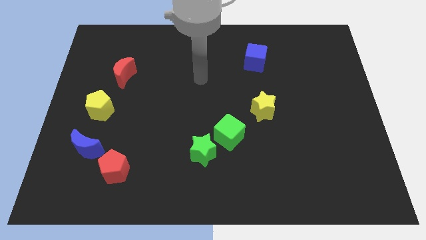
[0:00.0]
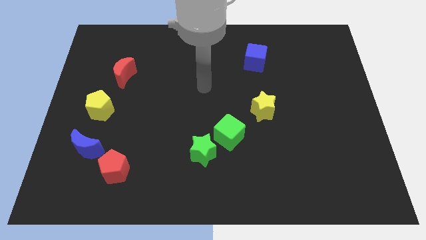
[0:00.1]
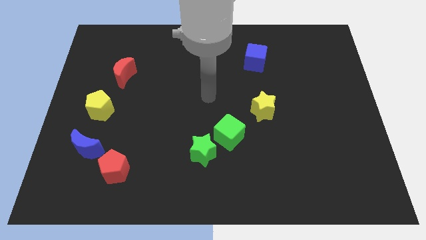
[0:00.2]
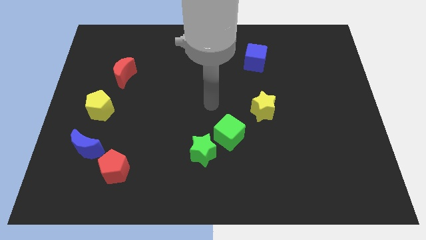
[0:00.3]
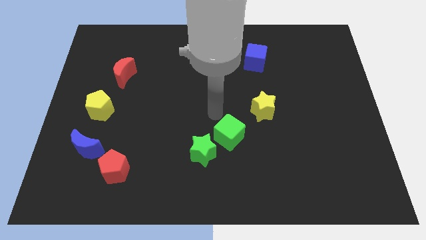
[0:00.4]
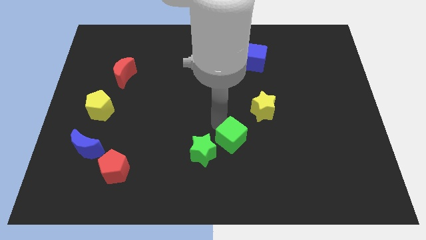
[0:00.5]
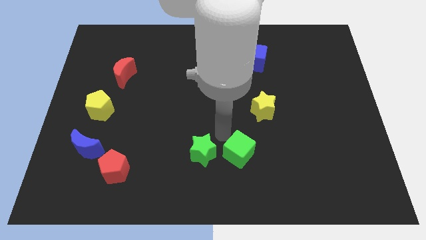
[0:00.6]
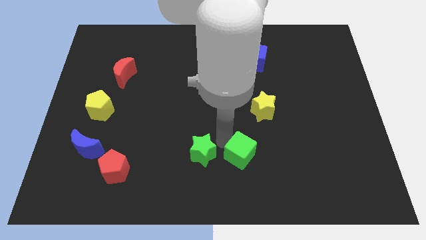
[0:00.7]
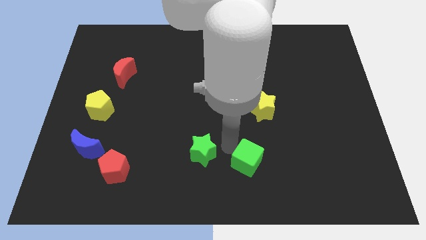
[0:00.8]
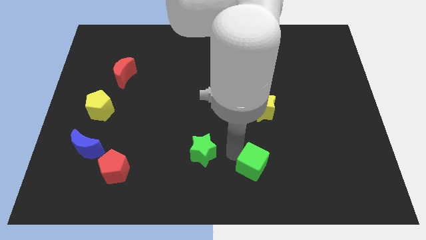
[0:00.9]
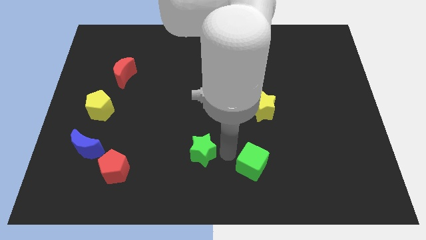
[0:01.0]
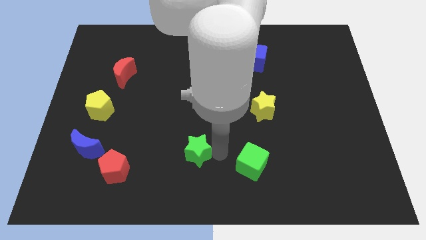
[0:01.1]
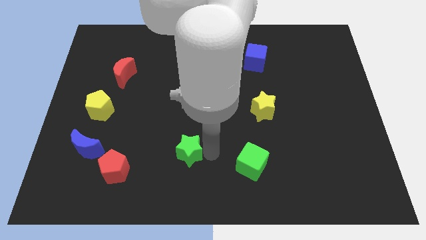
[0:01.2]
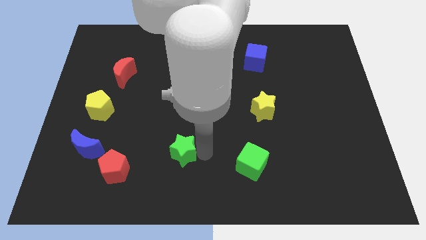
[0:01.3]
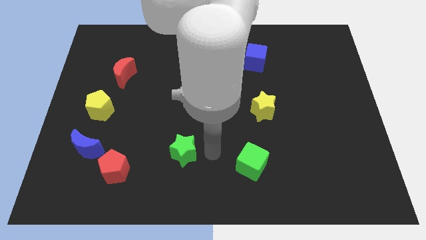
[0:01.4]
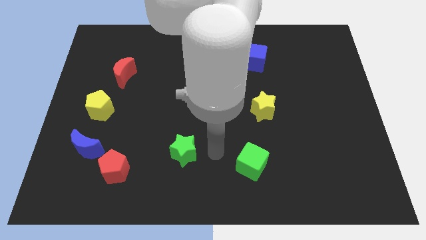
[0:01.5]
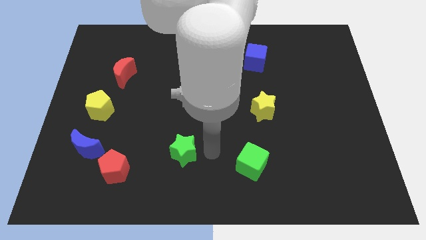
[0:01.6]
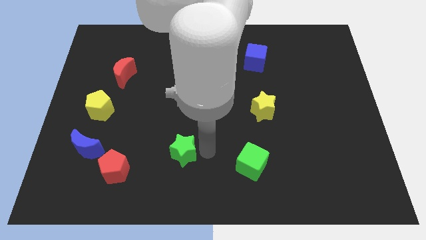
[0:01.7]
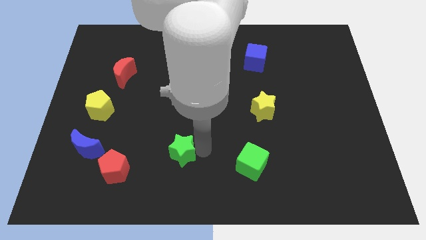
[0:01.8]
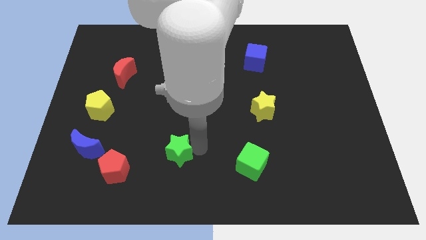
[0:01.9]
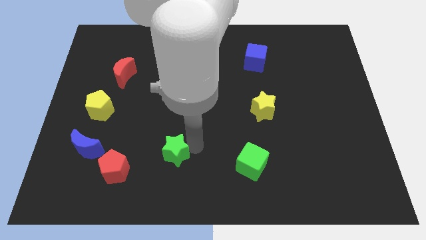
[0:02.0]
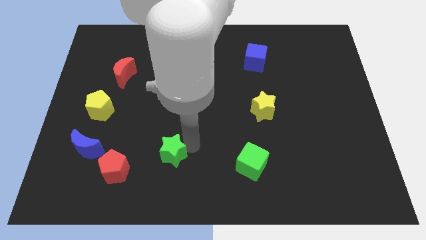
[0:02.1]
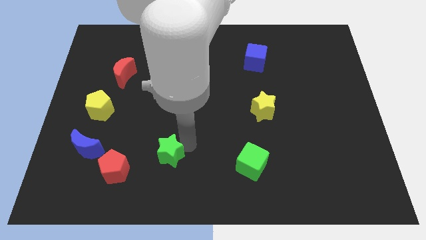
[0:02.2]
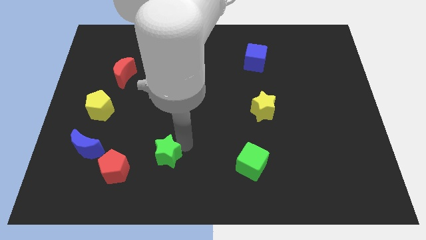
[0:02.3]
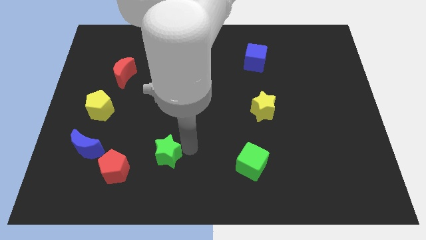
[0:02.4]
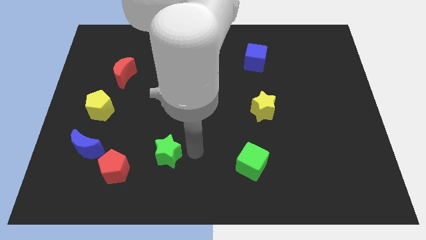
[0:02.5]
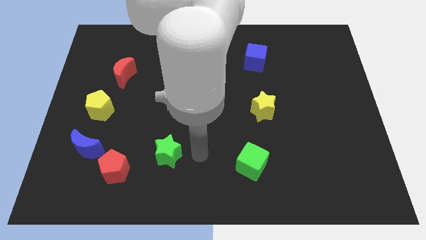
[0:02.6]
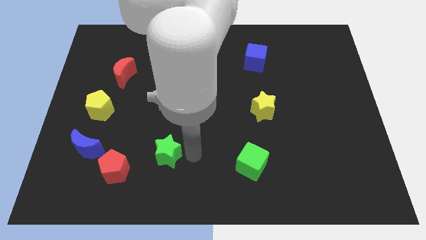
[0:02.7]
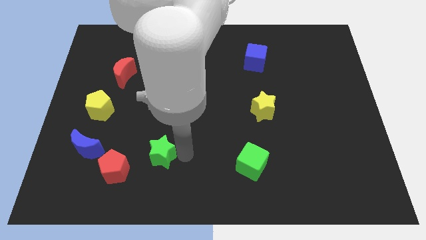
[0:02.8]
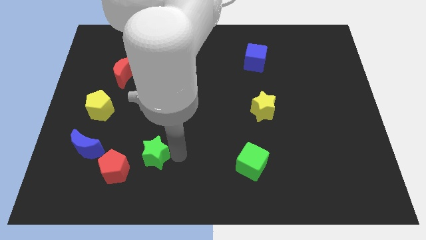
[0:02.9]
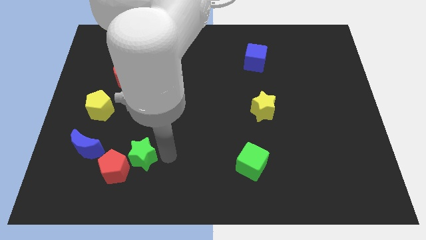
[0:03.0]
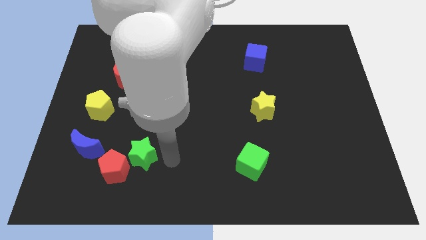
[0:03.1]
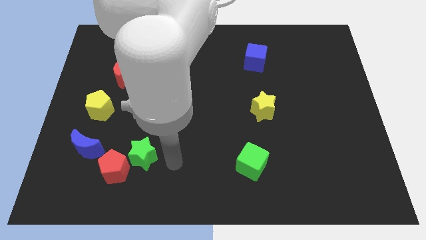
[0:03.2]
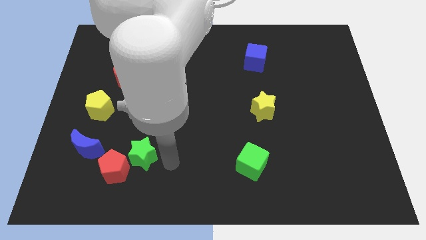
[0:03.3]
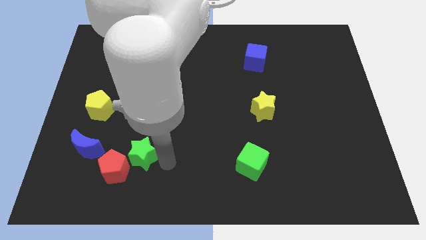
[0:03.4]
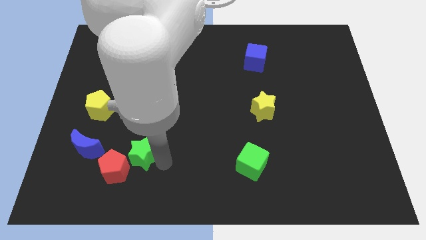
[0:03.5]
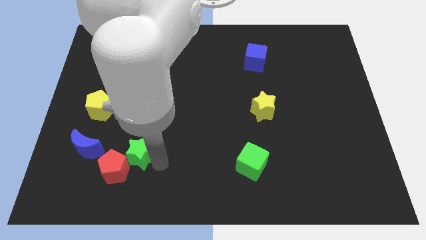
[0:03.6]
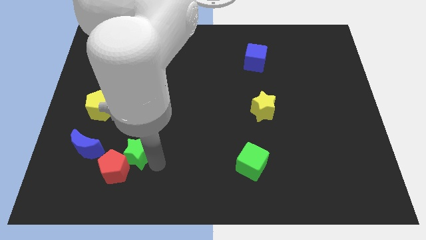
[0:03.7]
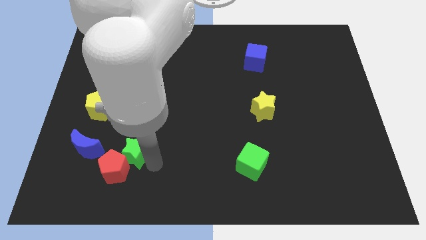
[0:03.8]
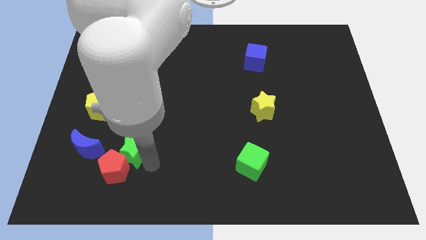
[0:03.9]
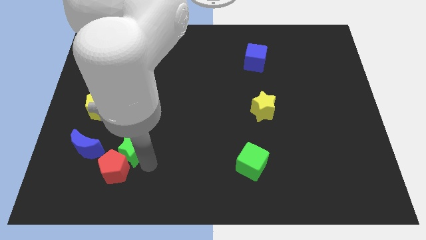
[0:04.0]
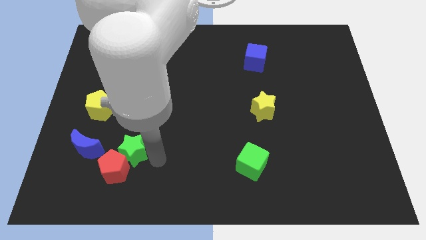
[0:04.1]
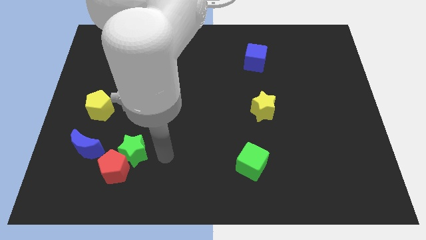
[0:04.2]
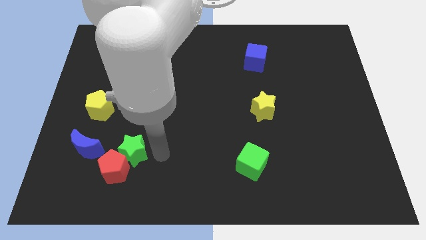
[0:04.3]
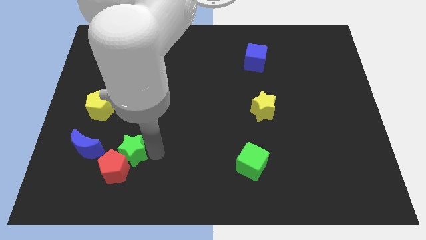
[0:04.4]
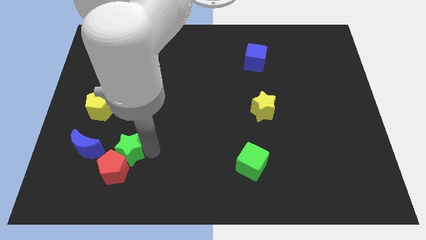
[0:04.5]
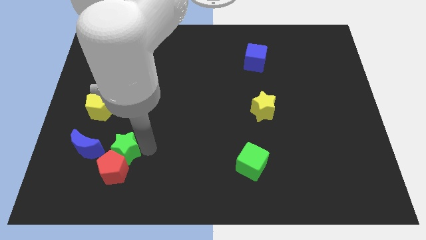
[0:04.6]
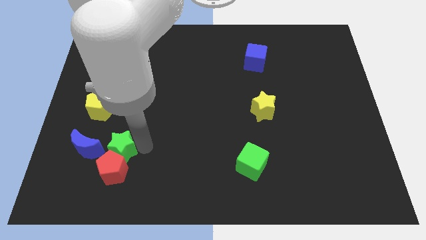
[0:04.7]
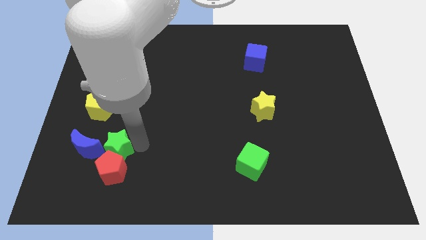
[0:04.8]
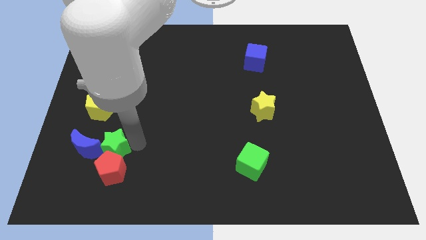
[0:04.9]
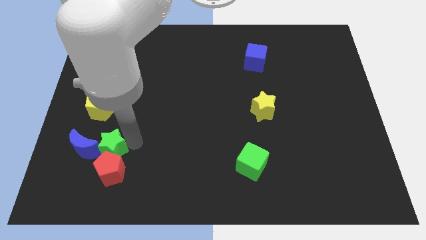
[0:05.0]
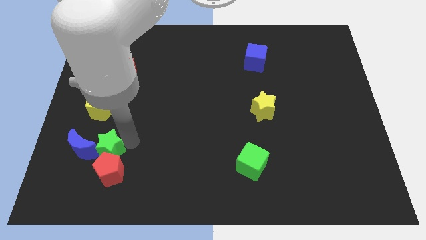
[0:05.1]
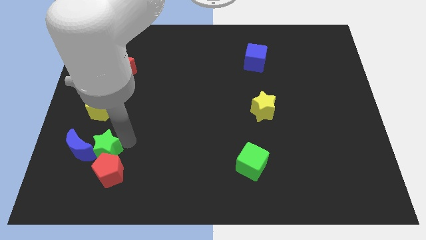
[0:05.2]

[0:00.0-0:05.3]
slide the green star next to the blue moon

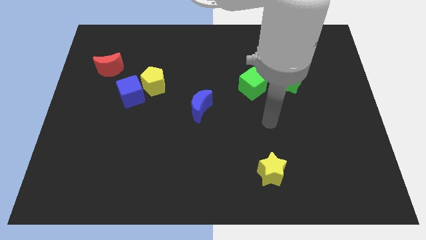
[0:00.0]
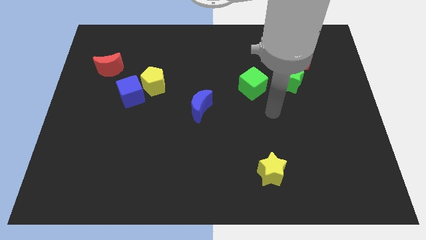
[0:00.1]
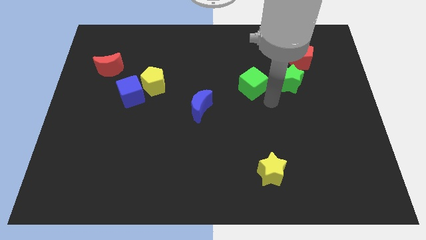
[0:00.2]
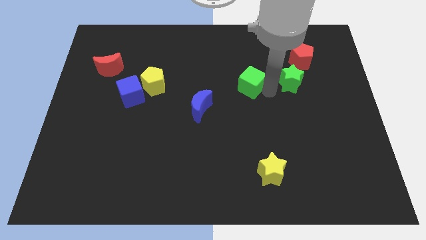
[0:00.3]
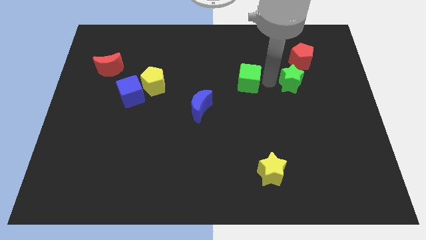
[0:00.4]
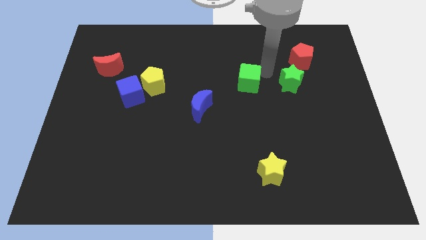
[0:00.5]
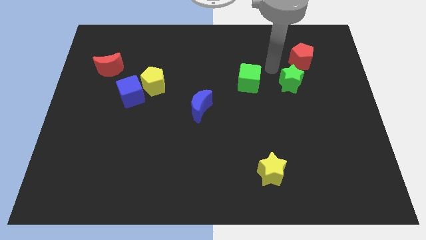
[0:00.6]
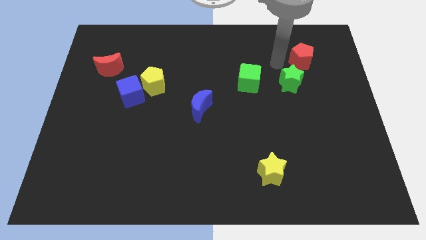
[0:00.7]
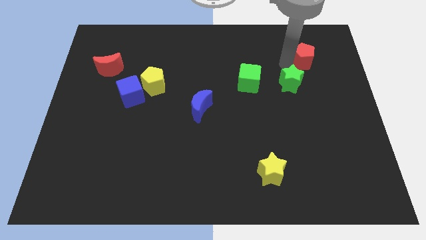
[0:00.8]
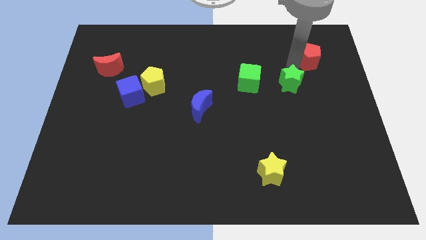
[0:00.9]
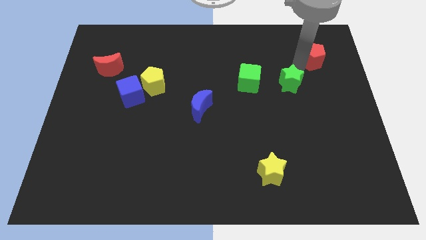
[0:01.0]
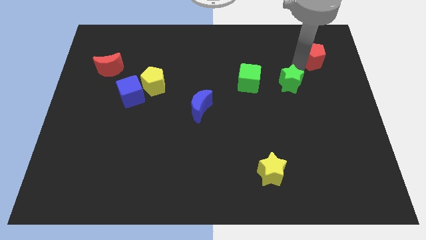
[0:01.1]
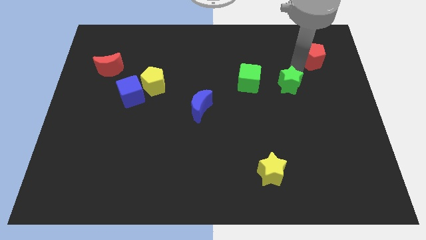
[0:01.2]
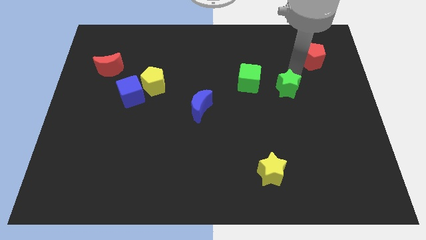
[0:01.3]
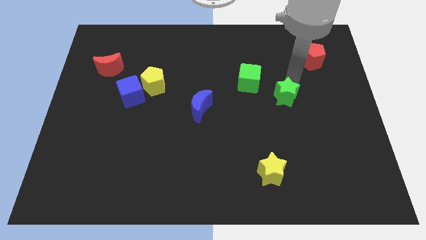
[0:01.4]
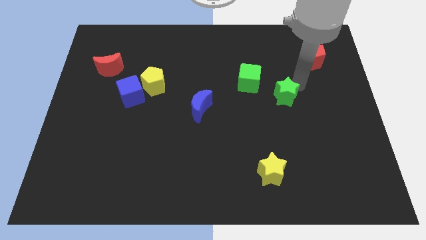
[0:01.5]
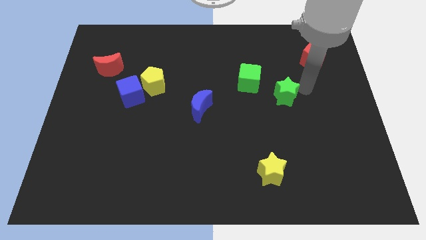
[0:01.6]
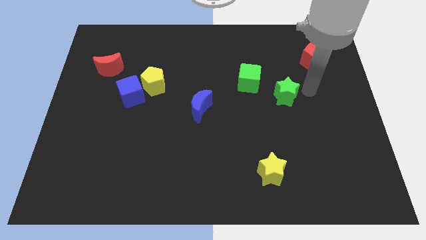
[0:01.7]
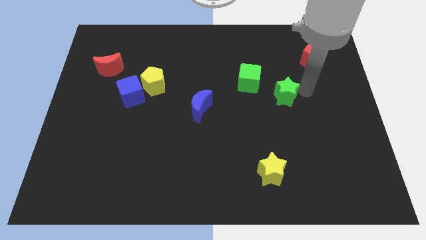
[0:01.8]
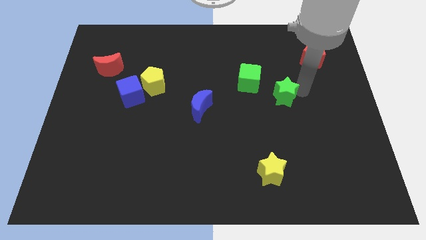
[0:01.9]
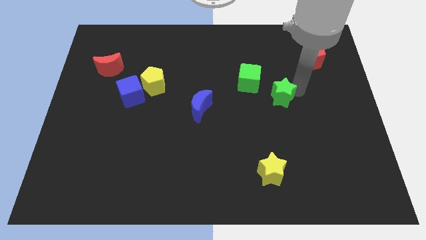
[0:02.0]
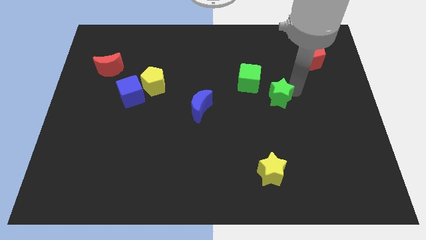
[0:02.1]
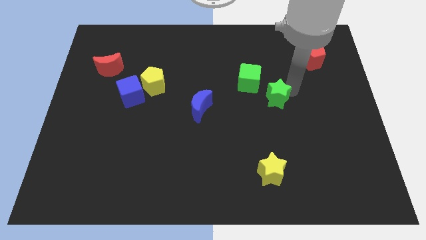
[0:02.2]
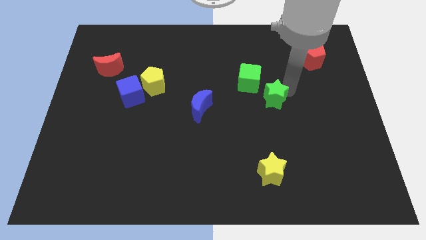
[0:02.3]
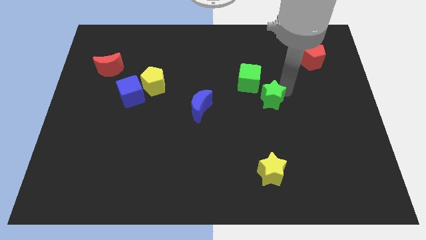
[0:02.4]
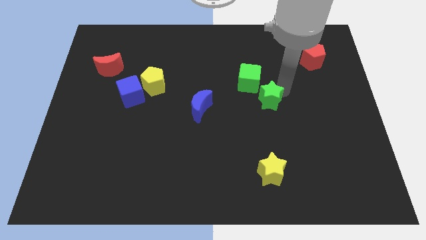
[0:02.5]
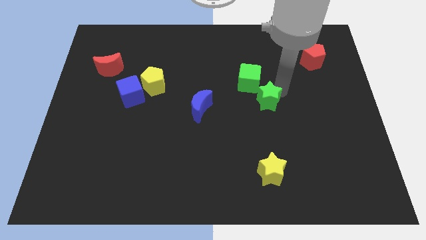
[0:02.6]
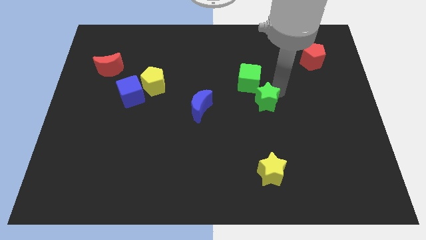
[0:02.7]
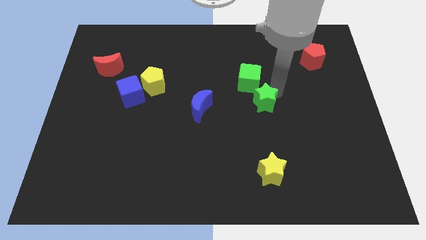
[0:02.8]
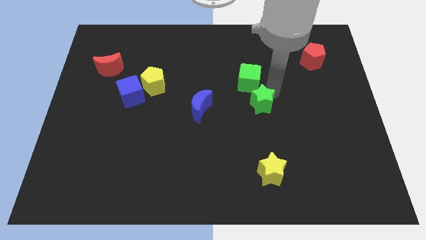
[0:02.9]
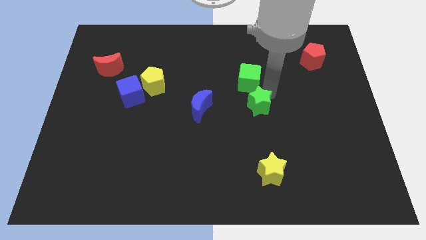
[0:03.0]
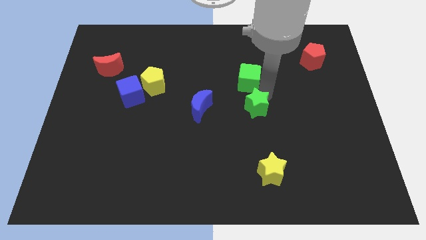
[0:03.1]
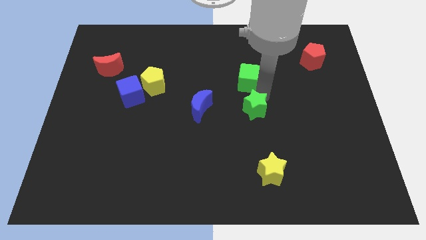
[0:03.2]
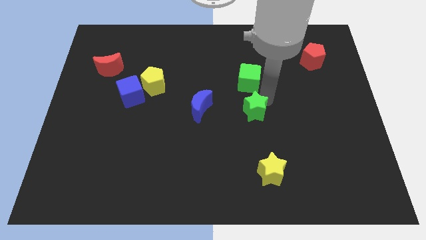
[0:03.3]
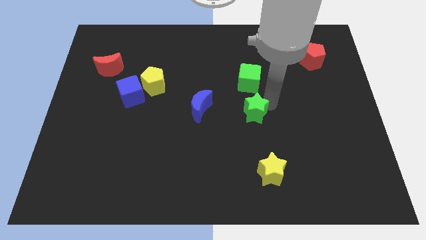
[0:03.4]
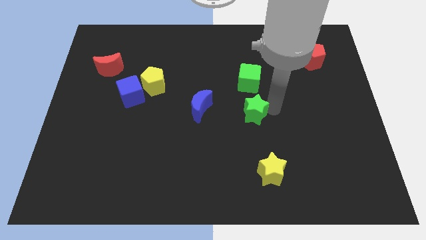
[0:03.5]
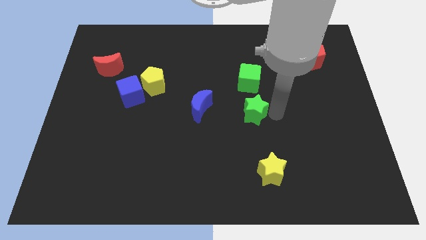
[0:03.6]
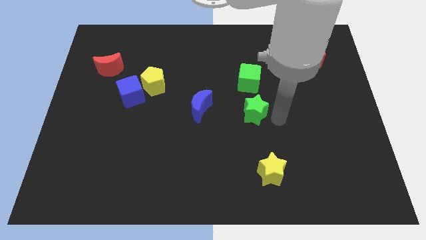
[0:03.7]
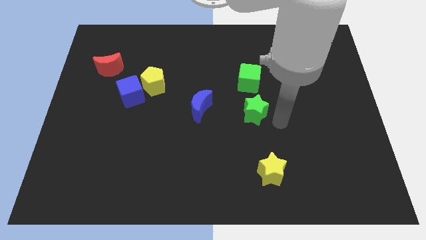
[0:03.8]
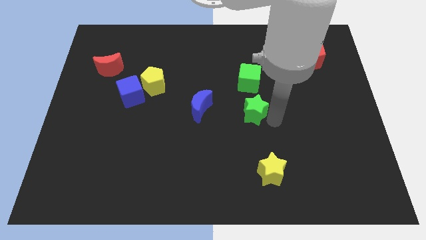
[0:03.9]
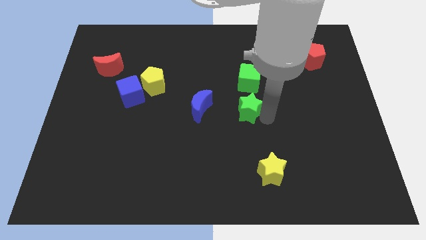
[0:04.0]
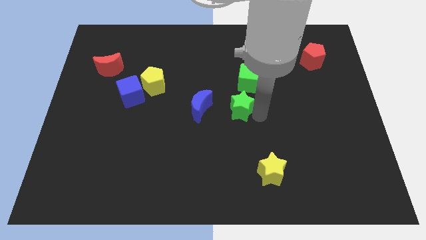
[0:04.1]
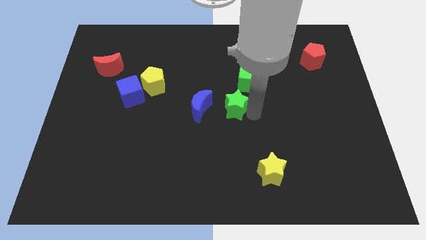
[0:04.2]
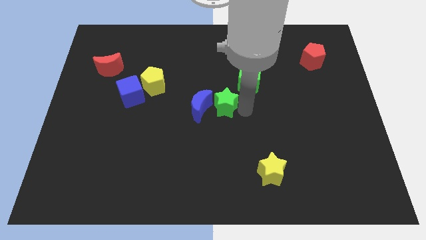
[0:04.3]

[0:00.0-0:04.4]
move the green star next to the blue moon
